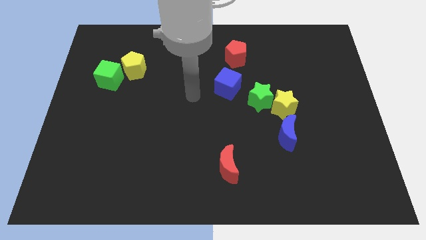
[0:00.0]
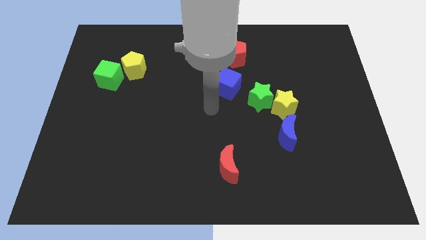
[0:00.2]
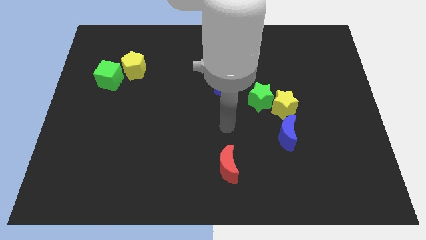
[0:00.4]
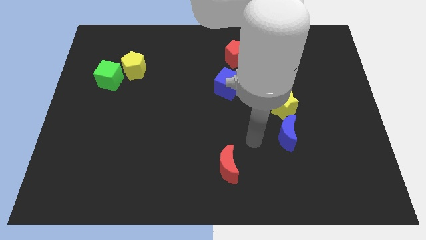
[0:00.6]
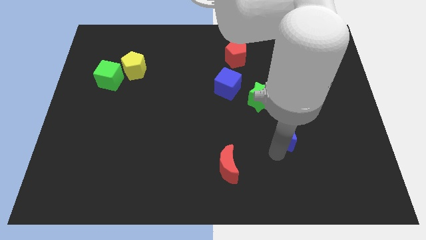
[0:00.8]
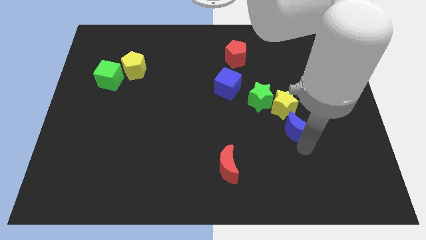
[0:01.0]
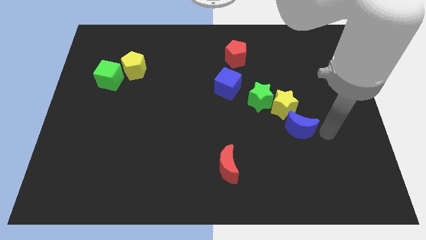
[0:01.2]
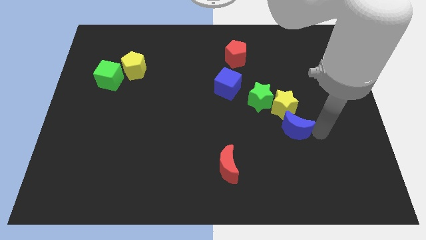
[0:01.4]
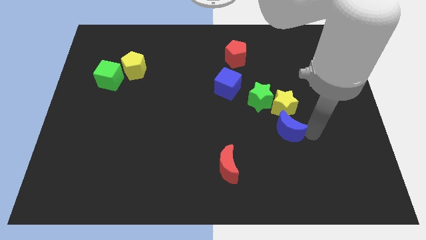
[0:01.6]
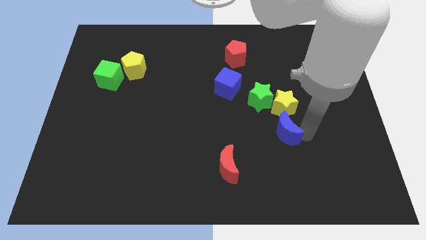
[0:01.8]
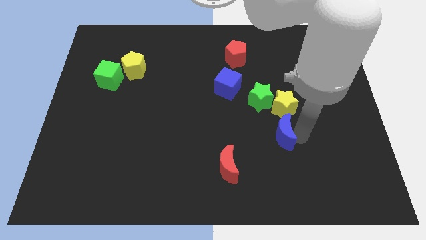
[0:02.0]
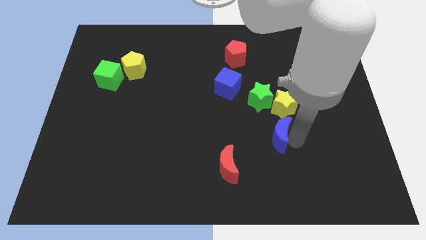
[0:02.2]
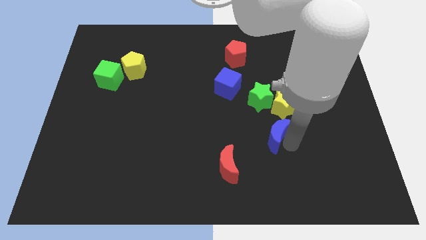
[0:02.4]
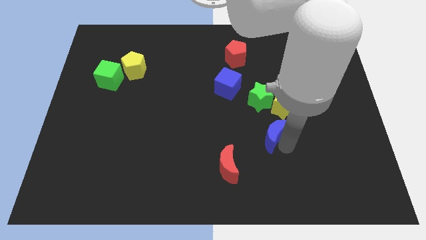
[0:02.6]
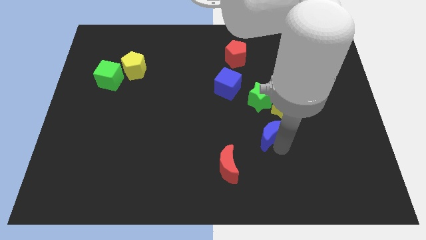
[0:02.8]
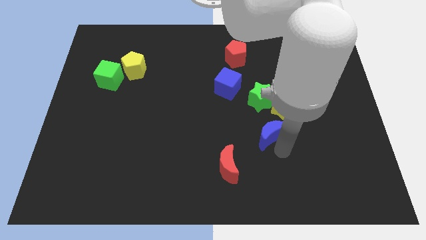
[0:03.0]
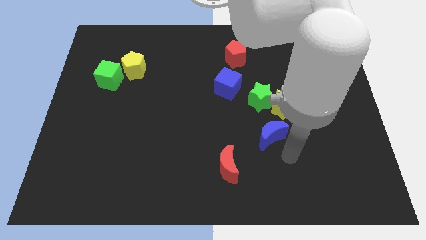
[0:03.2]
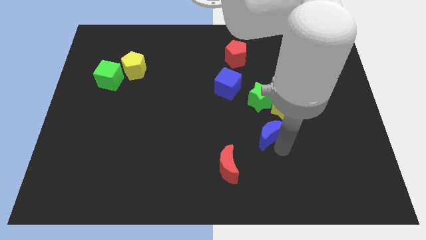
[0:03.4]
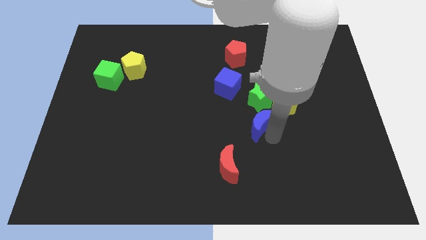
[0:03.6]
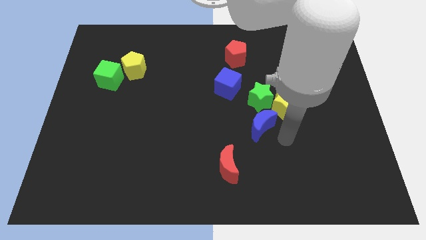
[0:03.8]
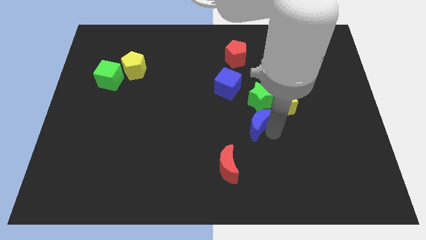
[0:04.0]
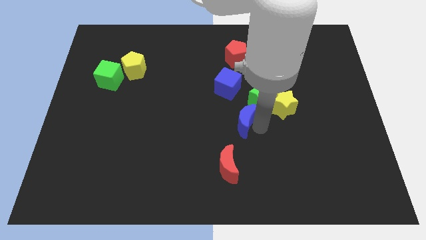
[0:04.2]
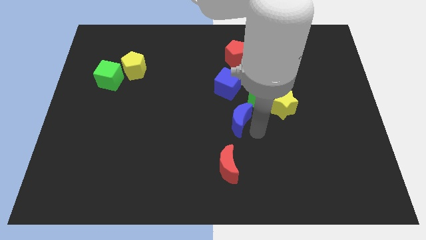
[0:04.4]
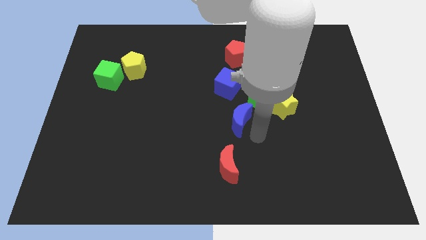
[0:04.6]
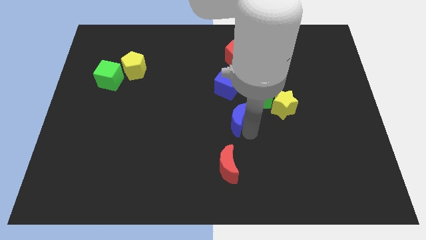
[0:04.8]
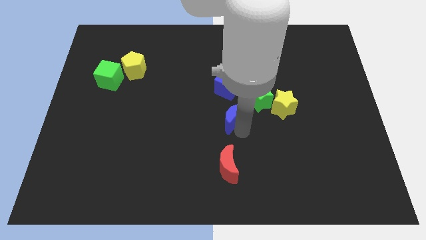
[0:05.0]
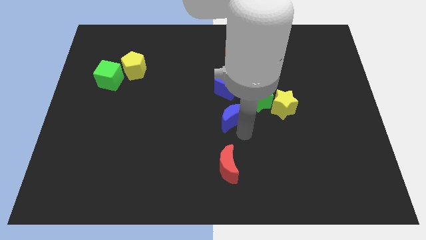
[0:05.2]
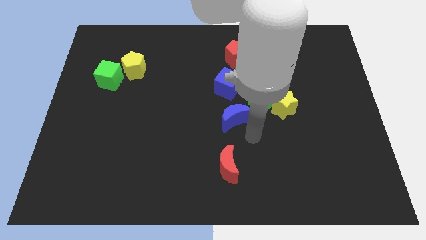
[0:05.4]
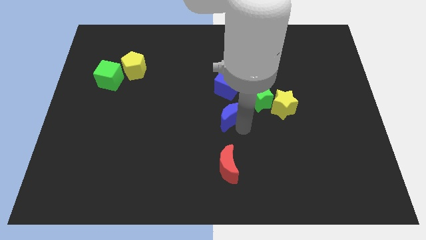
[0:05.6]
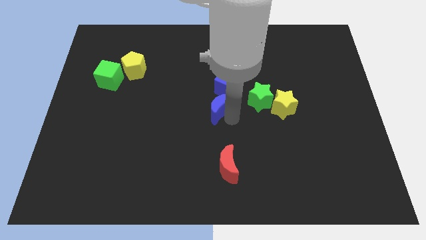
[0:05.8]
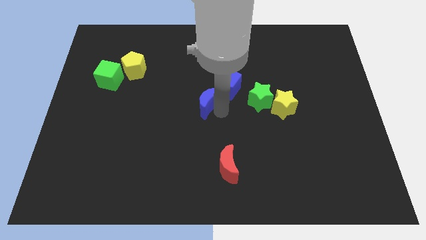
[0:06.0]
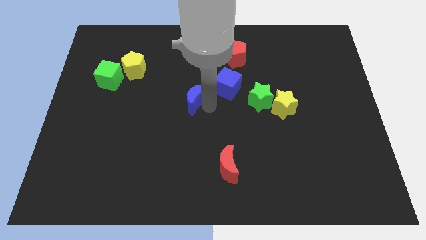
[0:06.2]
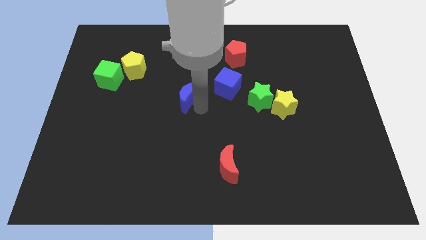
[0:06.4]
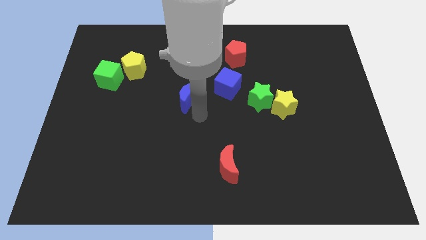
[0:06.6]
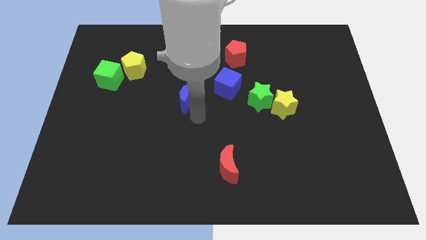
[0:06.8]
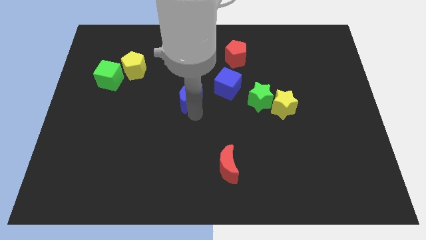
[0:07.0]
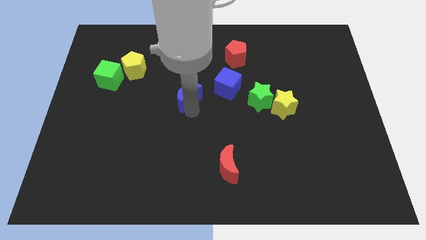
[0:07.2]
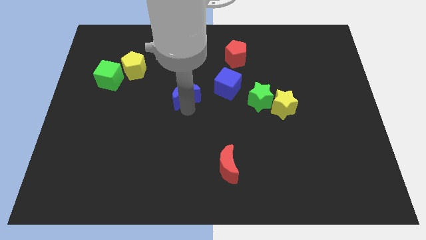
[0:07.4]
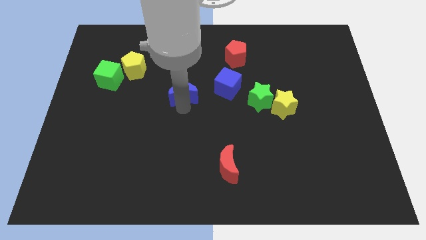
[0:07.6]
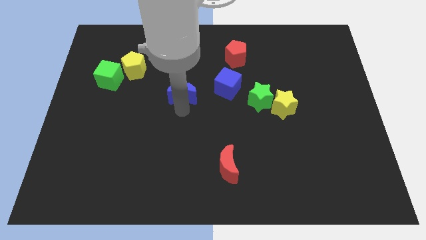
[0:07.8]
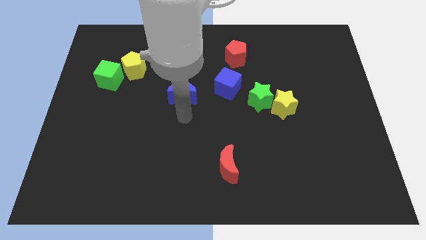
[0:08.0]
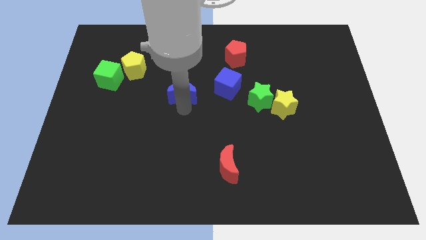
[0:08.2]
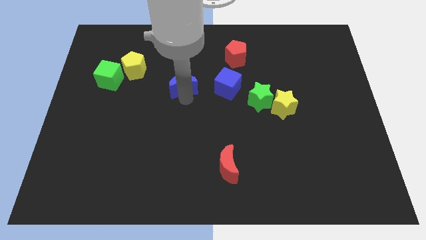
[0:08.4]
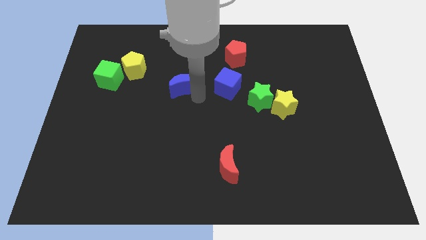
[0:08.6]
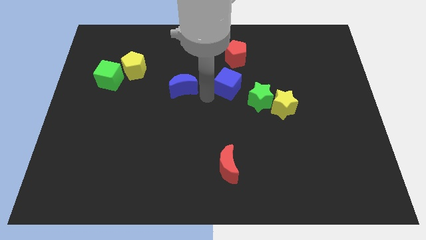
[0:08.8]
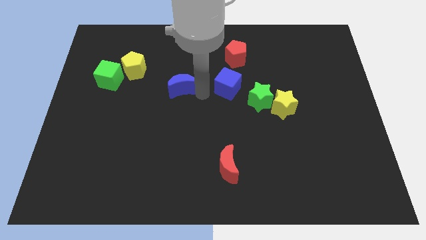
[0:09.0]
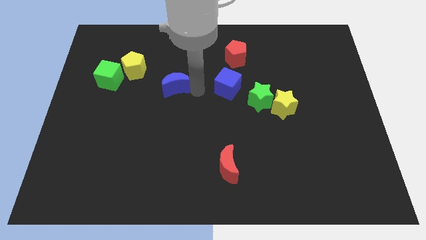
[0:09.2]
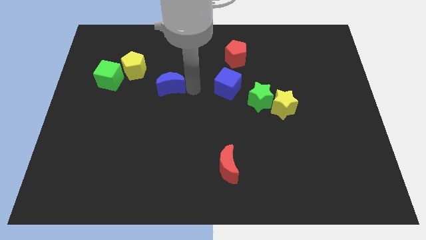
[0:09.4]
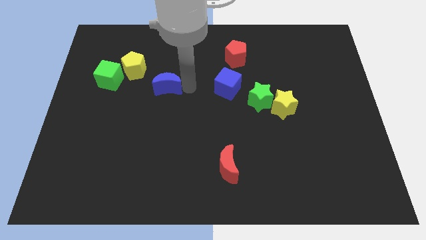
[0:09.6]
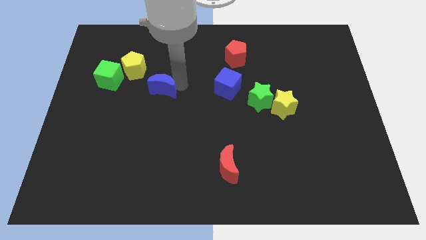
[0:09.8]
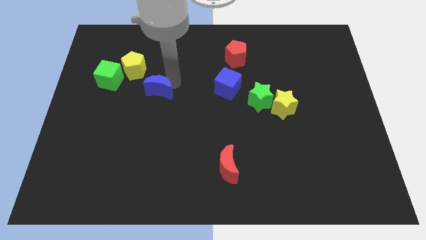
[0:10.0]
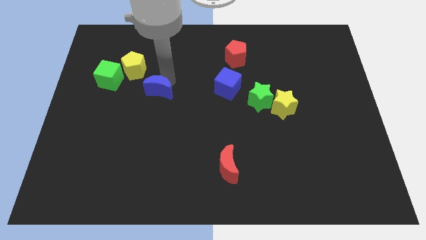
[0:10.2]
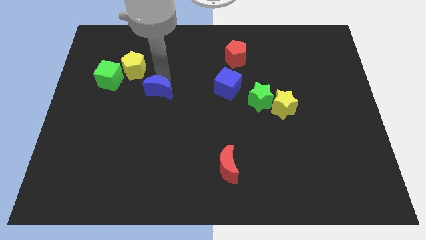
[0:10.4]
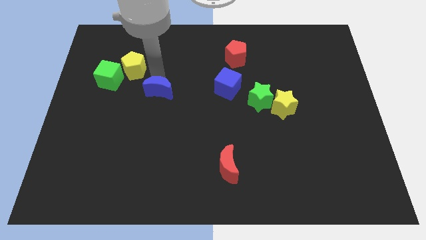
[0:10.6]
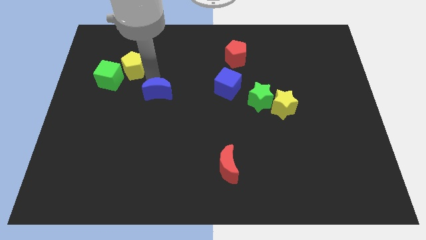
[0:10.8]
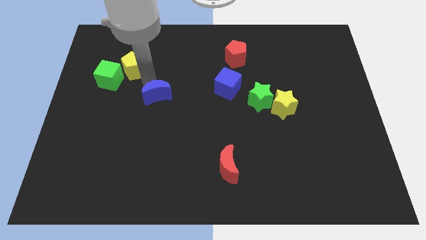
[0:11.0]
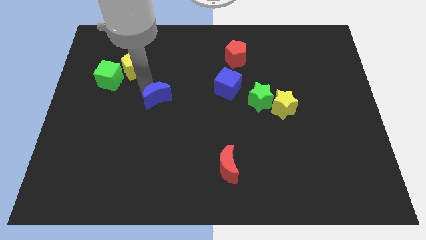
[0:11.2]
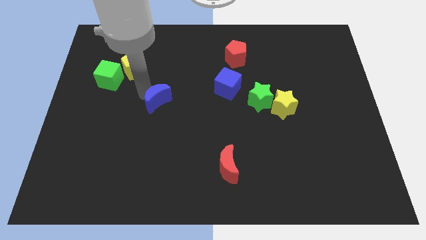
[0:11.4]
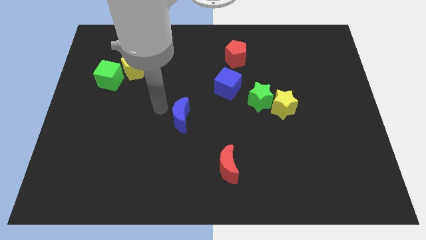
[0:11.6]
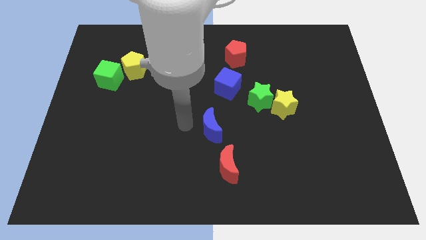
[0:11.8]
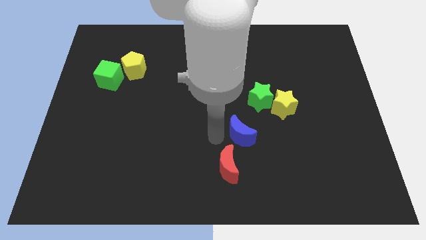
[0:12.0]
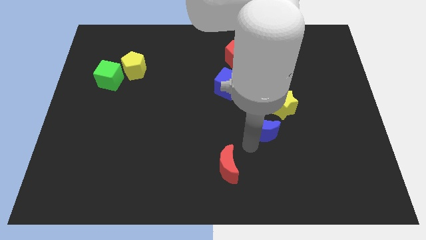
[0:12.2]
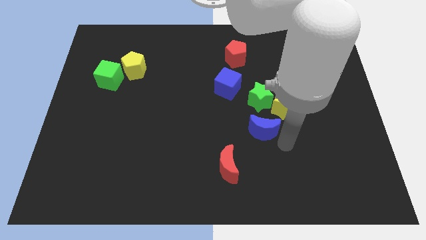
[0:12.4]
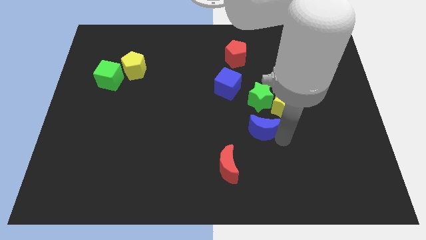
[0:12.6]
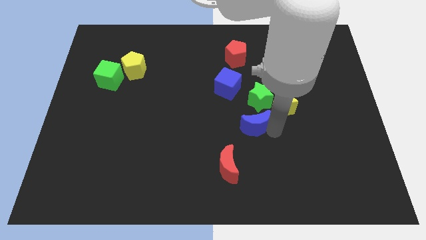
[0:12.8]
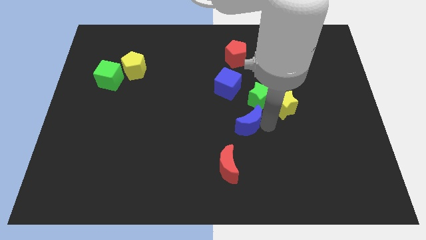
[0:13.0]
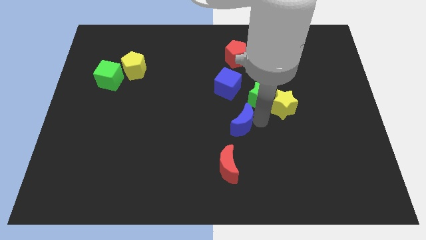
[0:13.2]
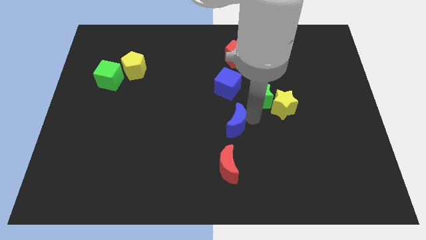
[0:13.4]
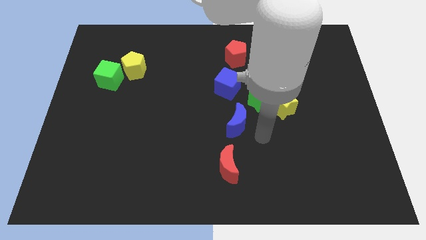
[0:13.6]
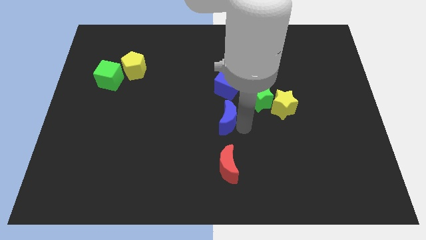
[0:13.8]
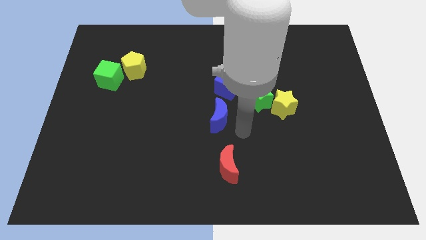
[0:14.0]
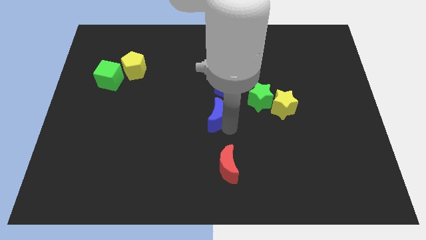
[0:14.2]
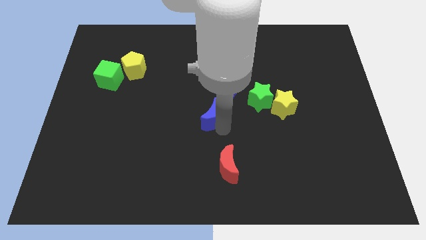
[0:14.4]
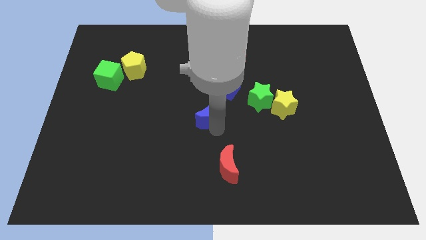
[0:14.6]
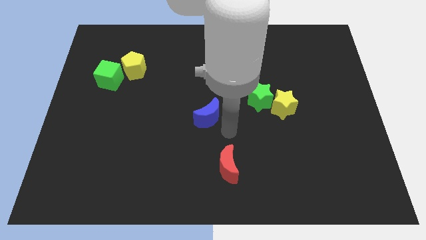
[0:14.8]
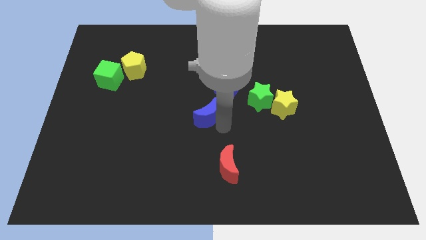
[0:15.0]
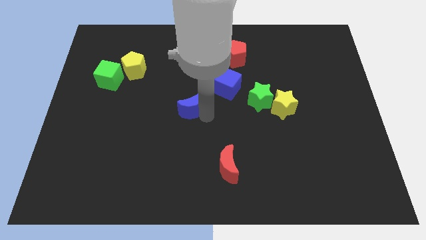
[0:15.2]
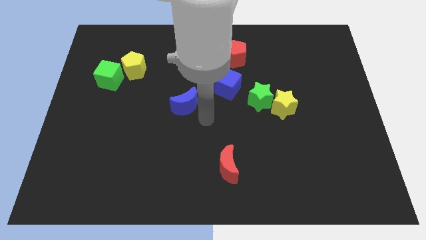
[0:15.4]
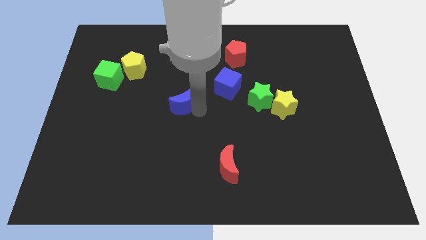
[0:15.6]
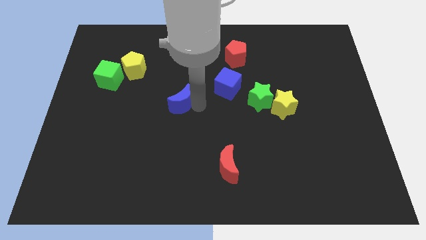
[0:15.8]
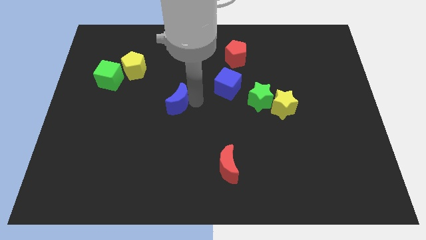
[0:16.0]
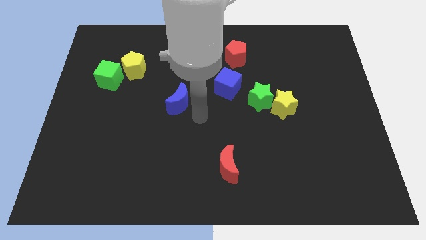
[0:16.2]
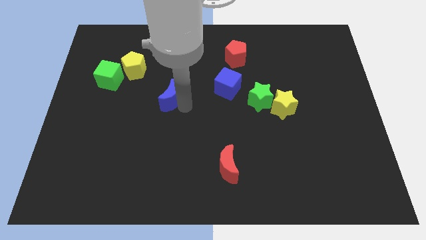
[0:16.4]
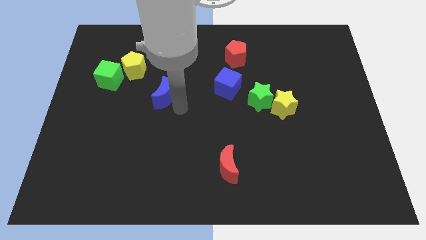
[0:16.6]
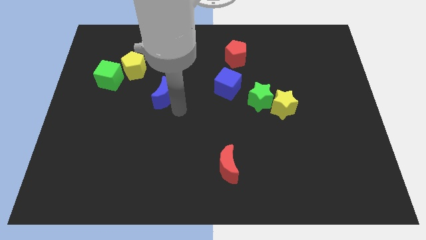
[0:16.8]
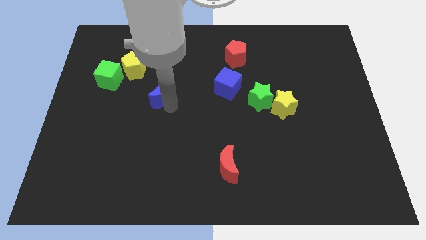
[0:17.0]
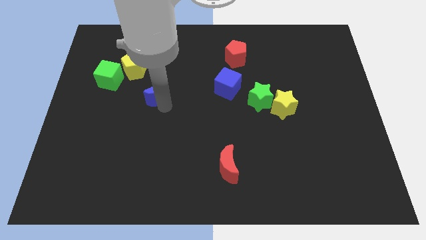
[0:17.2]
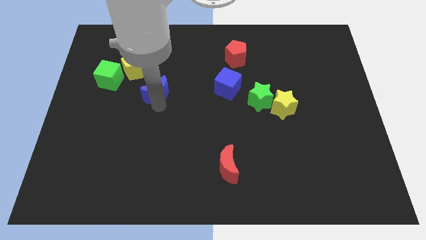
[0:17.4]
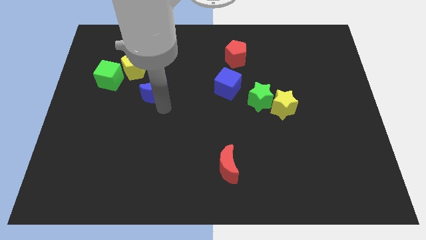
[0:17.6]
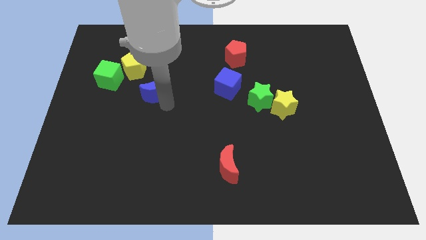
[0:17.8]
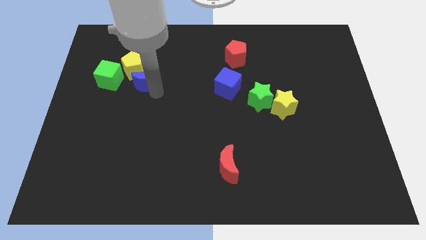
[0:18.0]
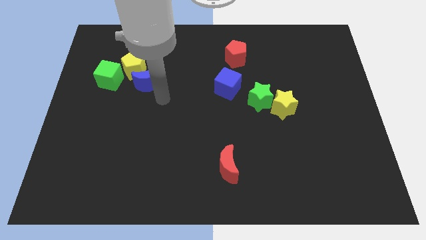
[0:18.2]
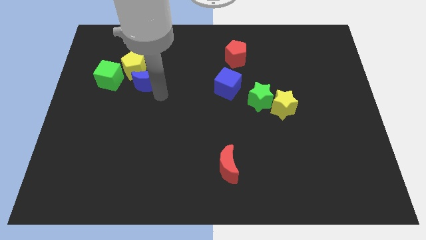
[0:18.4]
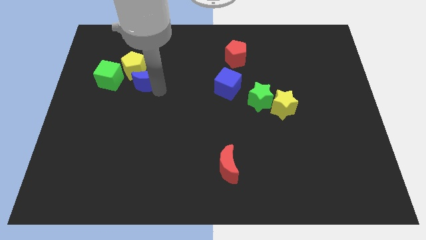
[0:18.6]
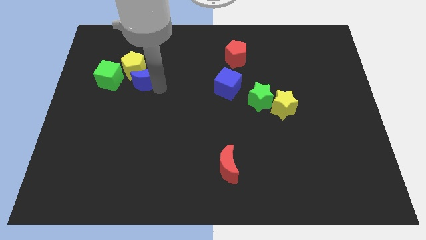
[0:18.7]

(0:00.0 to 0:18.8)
push the blue moon close to the yellow pentagon
